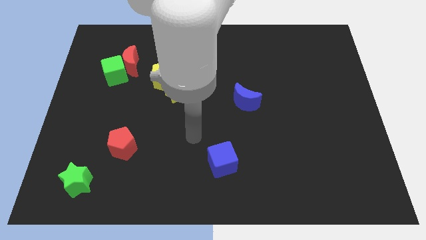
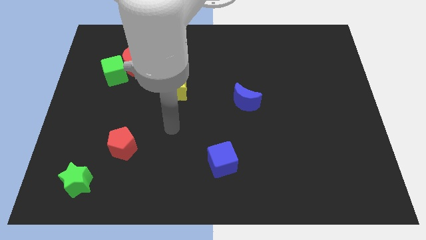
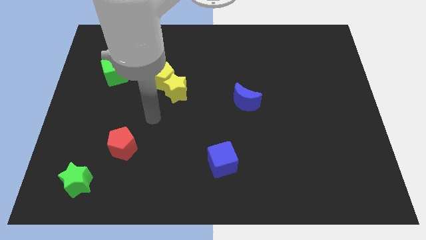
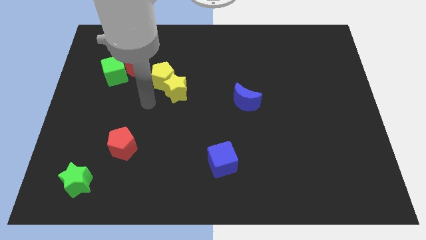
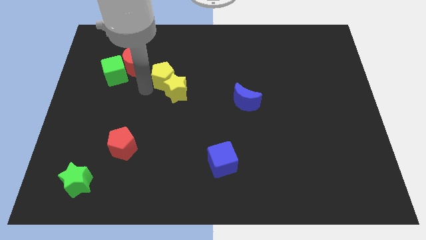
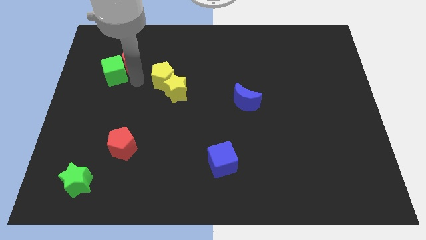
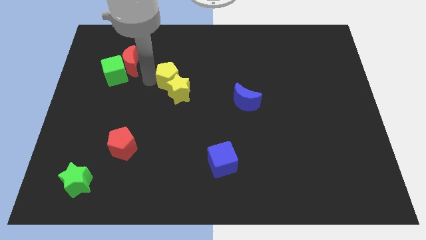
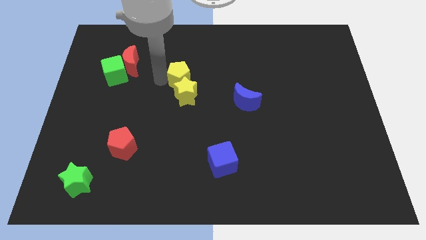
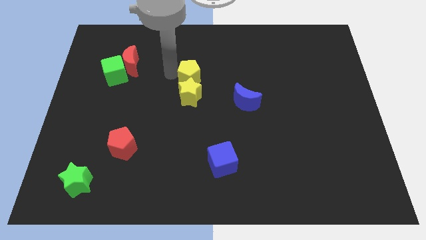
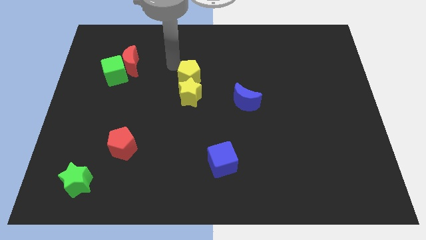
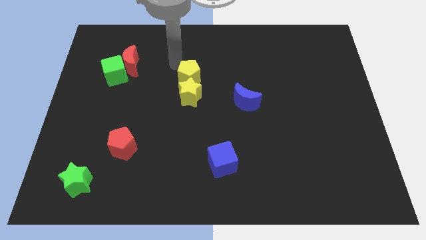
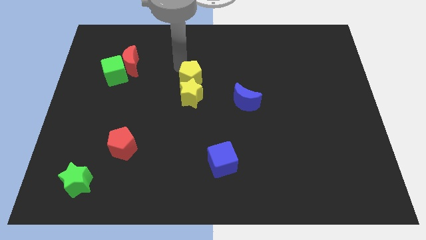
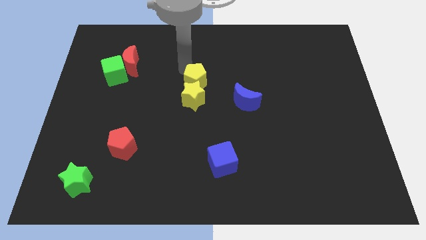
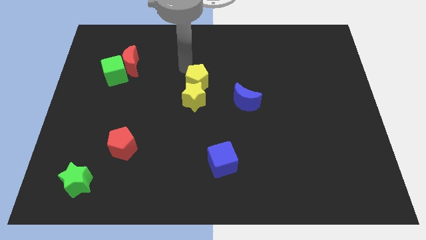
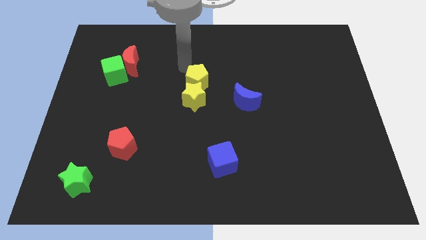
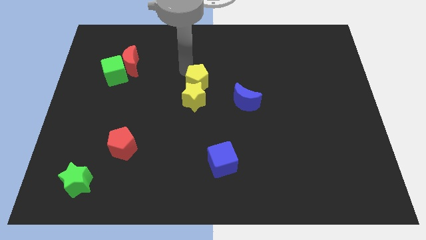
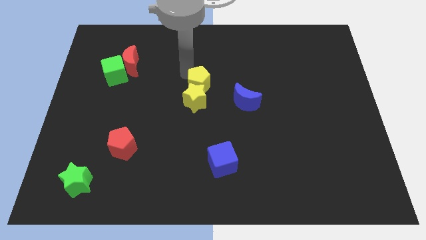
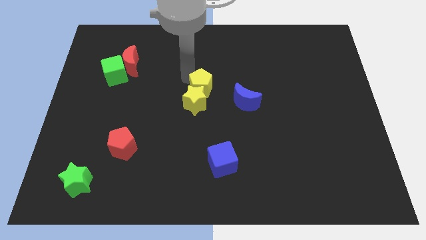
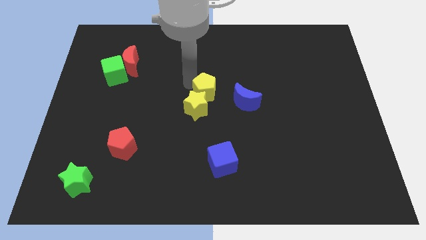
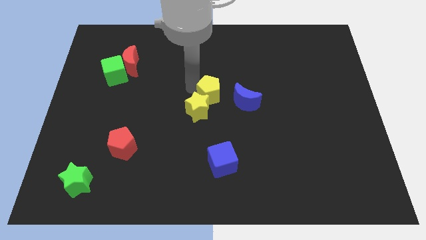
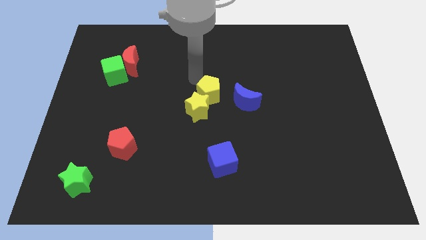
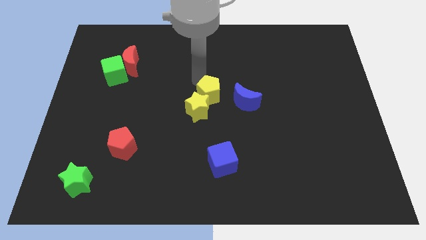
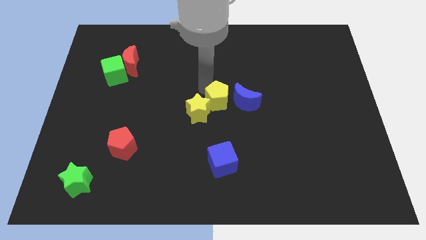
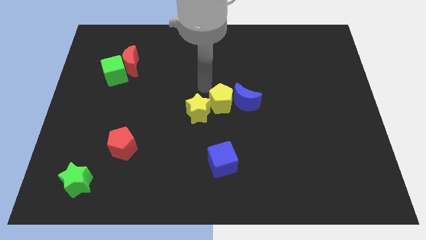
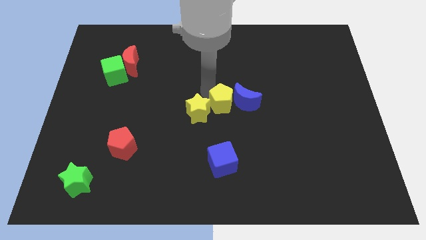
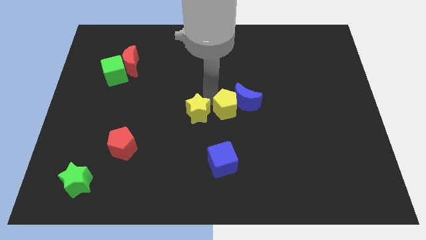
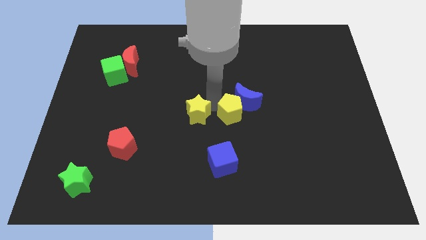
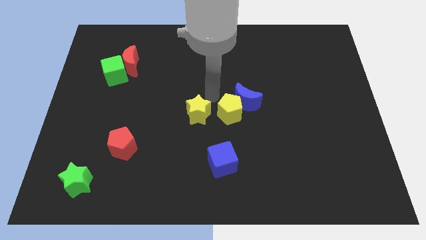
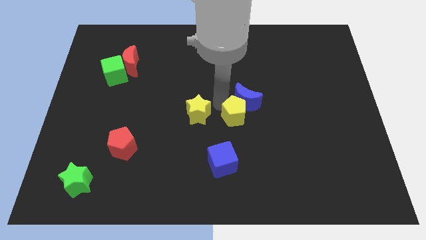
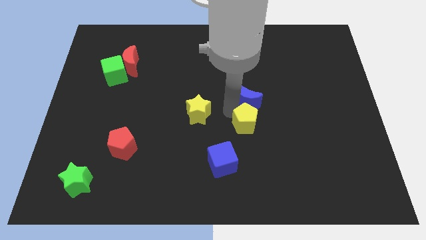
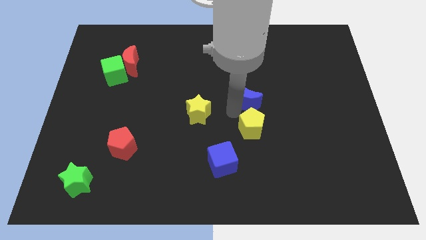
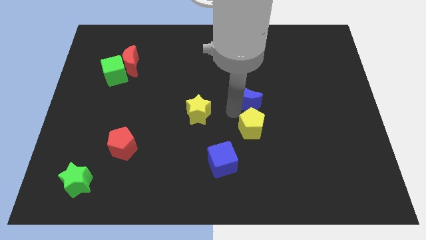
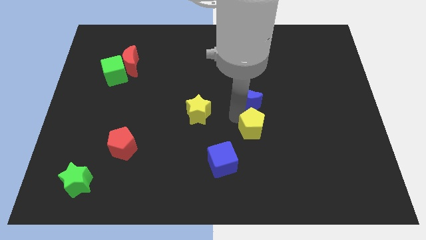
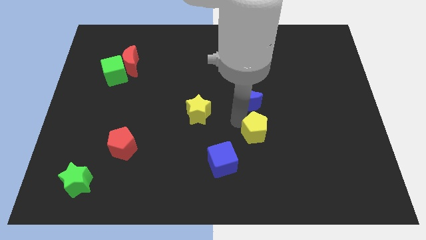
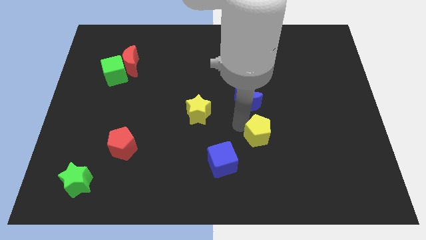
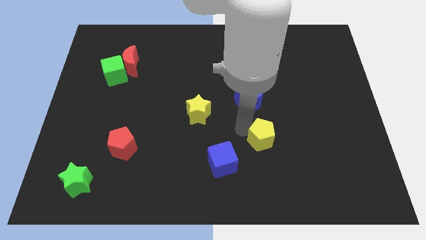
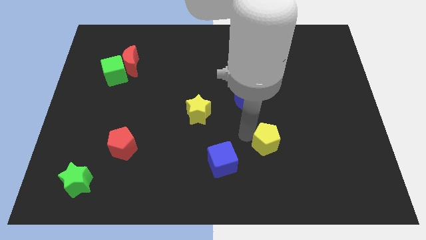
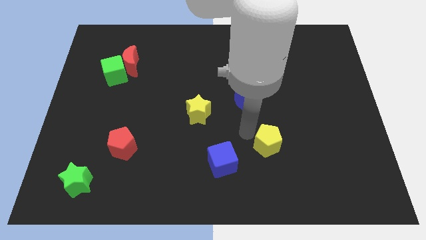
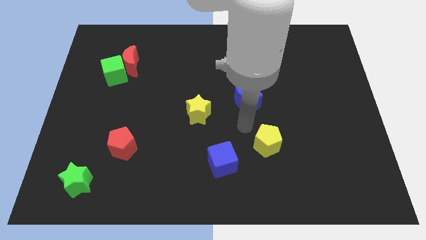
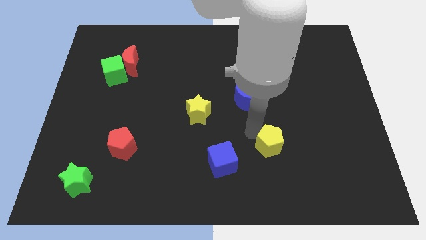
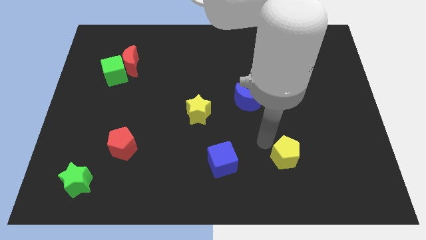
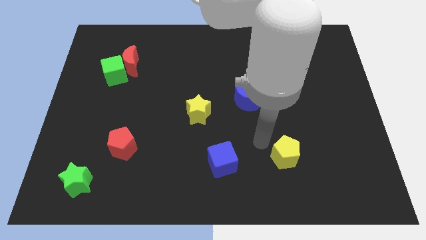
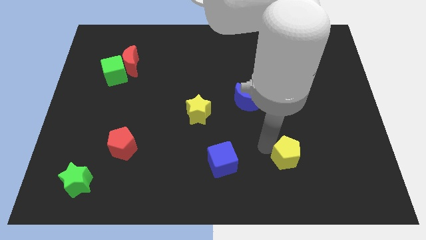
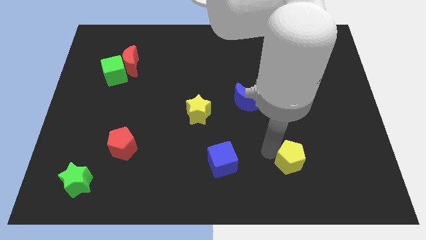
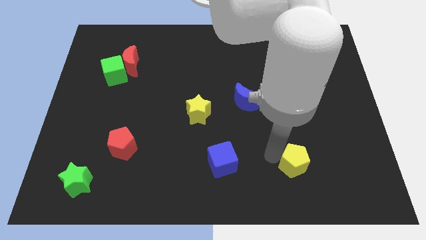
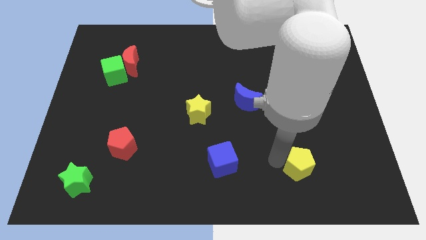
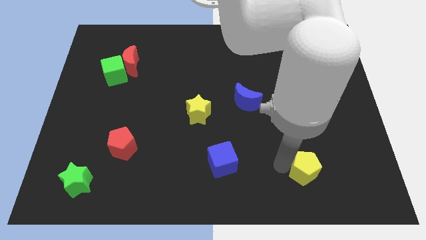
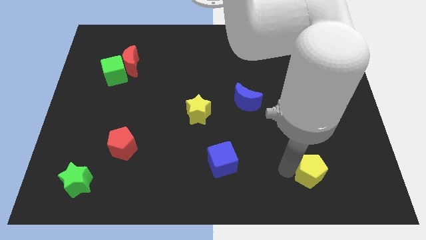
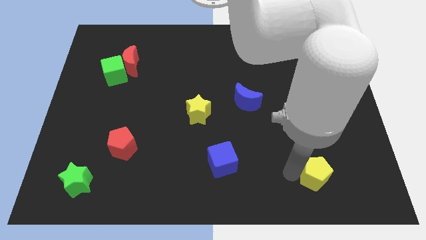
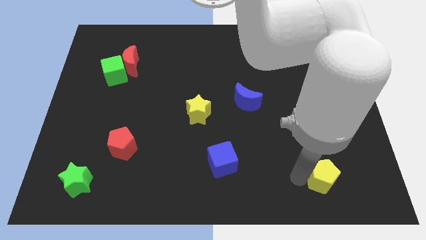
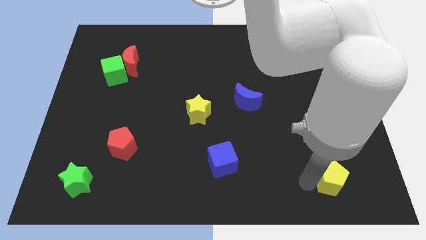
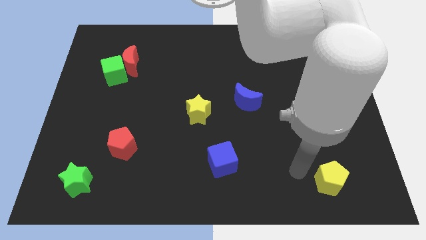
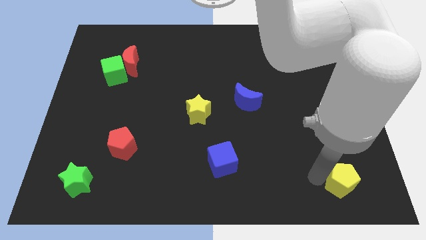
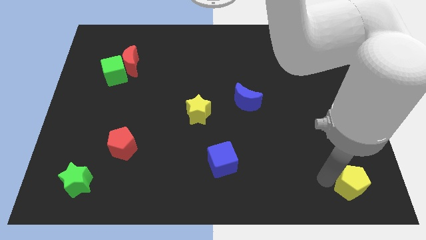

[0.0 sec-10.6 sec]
put the yellow pentagon to the bottom right corner

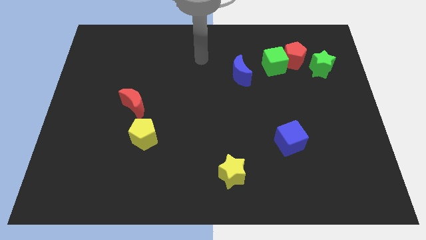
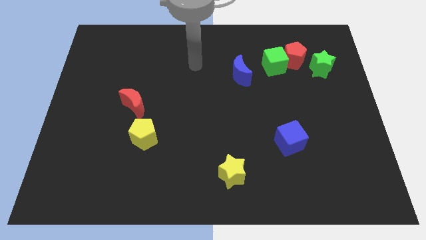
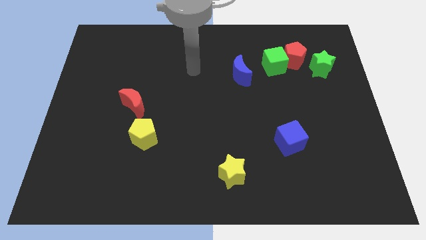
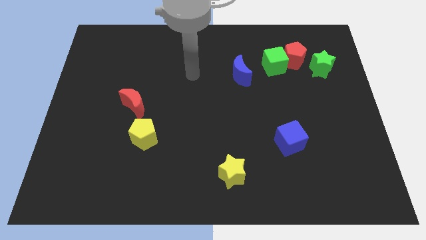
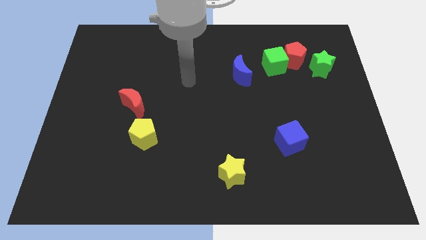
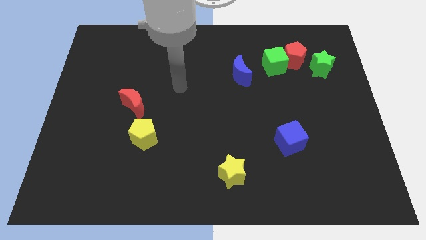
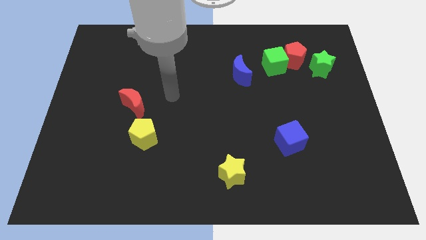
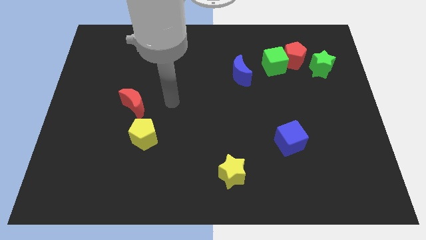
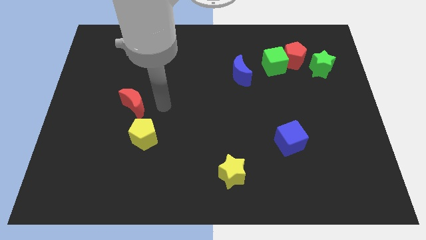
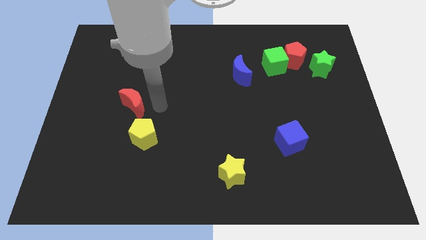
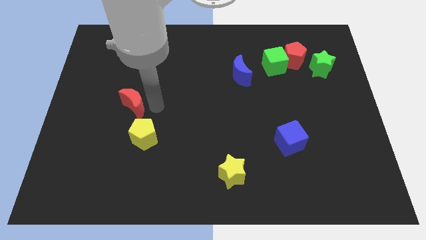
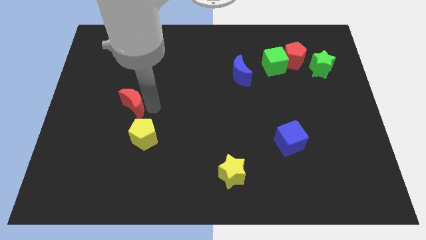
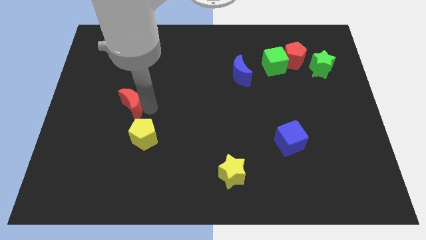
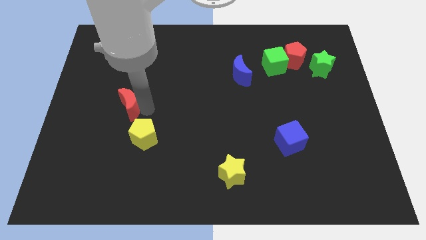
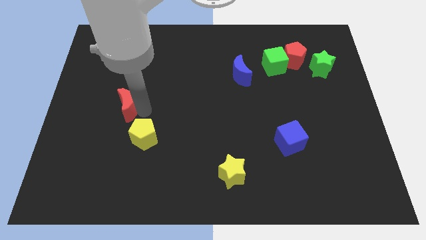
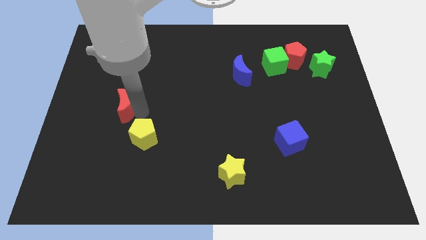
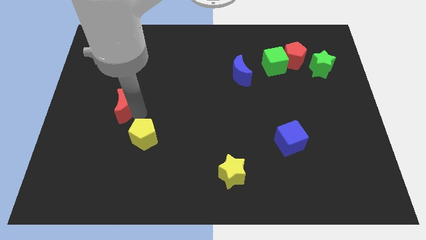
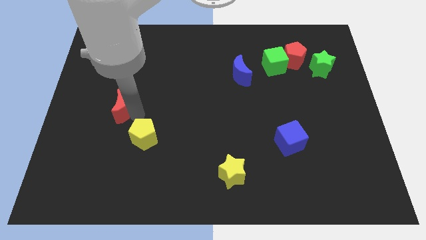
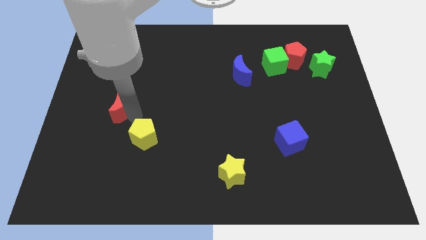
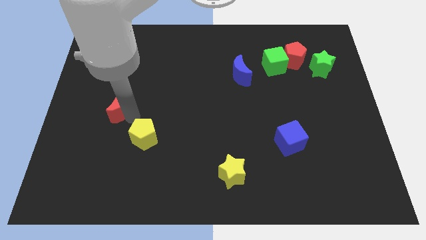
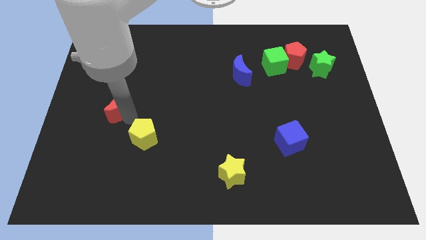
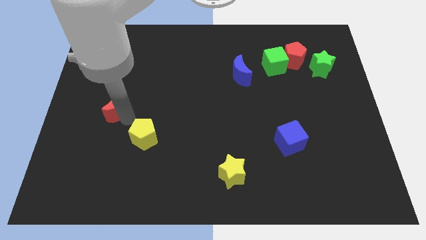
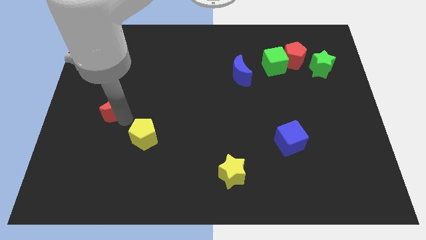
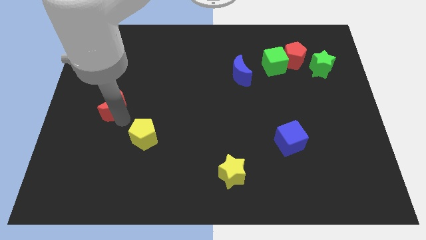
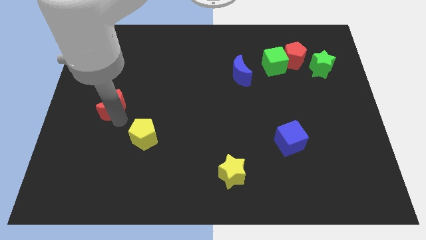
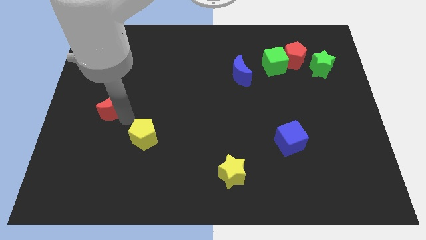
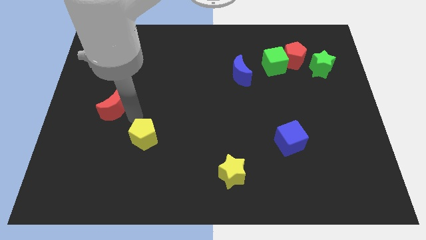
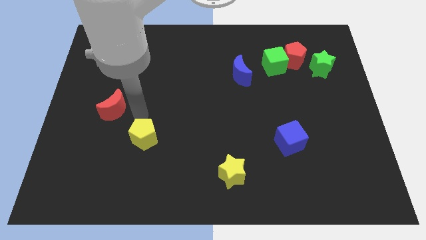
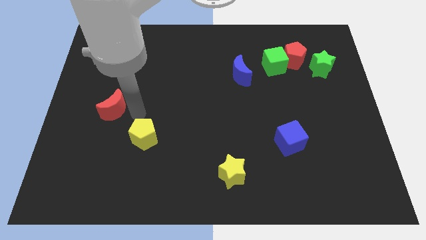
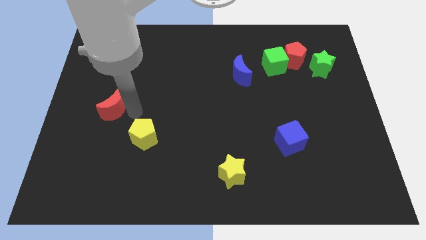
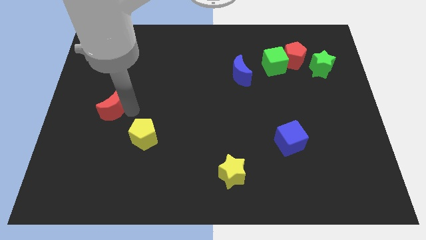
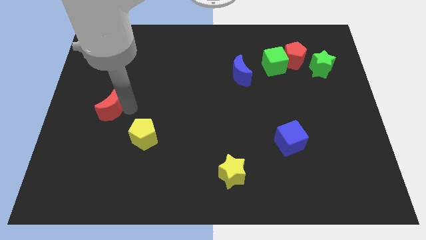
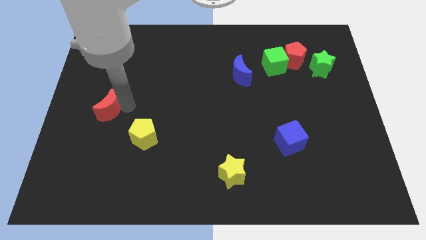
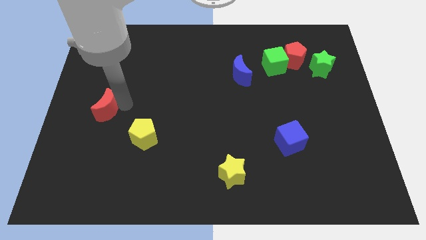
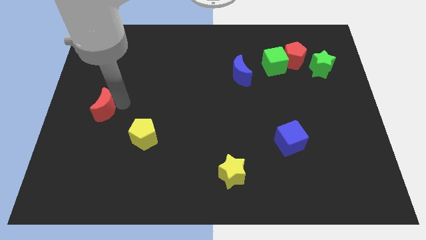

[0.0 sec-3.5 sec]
push the red moon to the left side of the board
